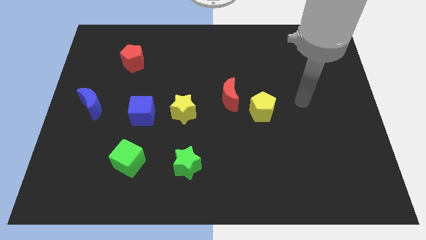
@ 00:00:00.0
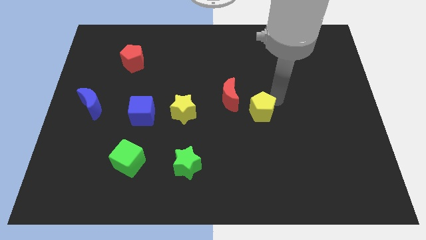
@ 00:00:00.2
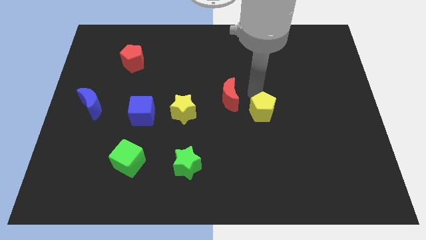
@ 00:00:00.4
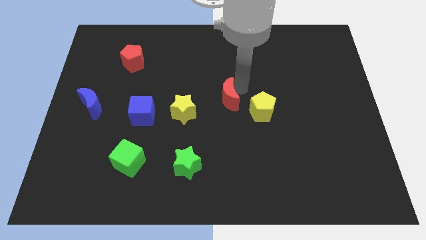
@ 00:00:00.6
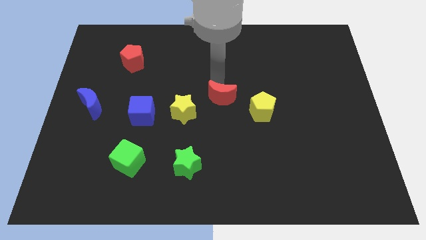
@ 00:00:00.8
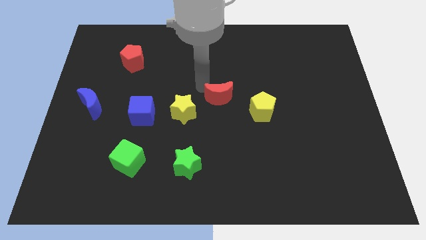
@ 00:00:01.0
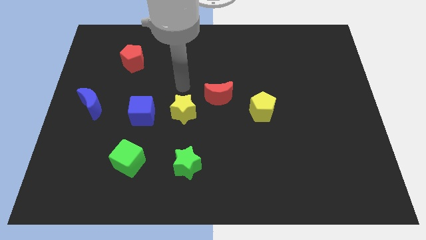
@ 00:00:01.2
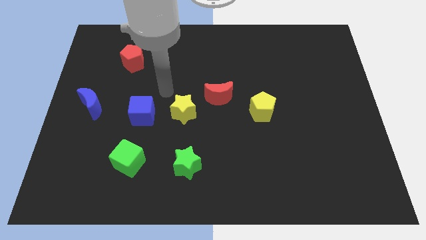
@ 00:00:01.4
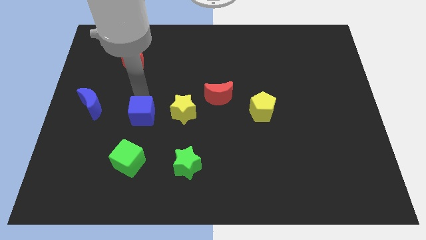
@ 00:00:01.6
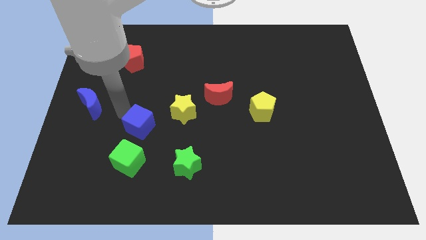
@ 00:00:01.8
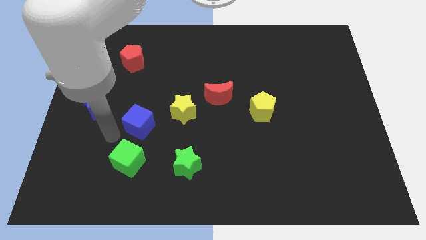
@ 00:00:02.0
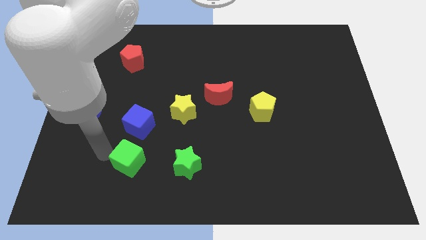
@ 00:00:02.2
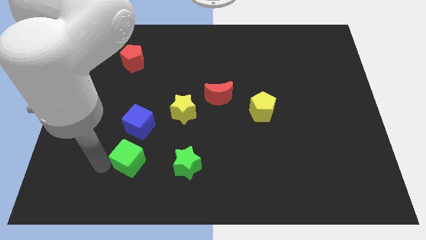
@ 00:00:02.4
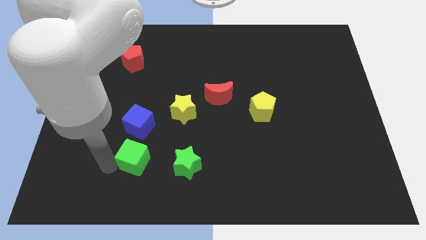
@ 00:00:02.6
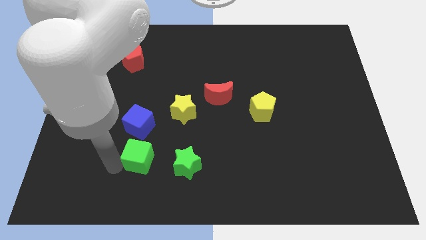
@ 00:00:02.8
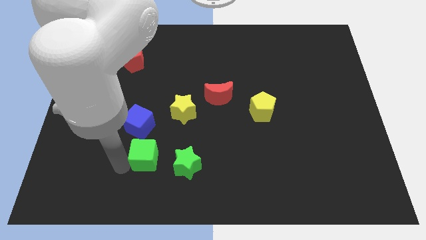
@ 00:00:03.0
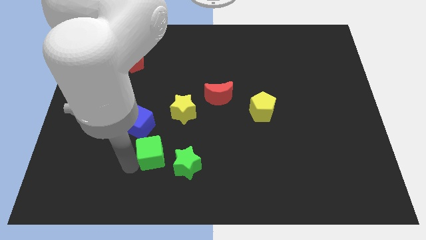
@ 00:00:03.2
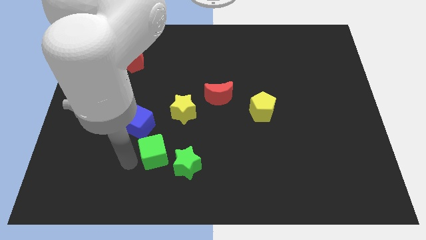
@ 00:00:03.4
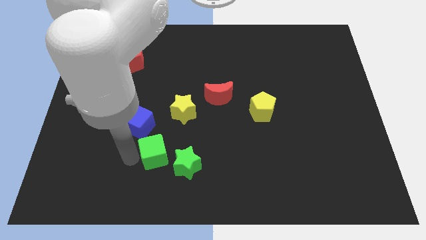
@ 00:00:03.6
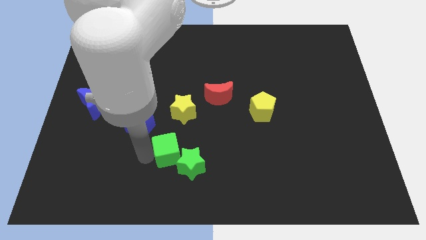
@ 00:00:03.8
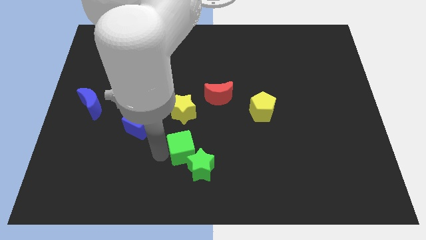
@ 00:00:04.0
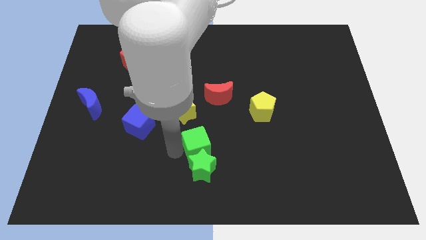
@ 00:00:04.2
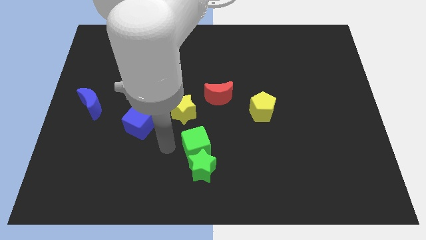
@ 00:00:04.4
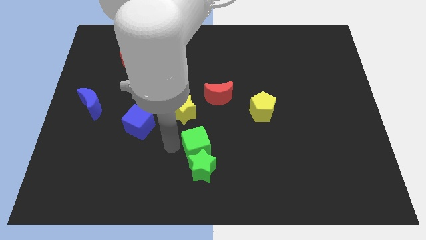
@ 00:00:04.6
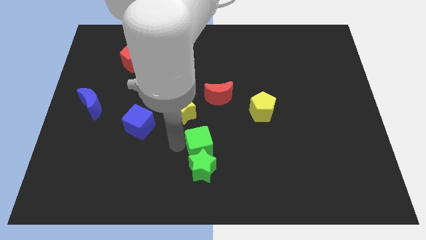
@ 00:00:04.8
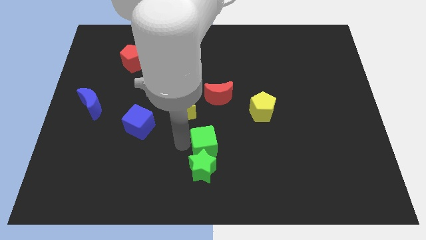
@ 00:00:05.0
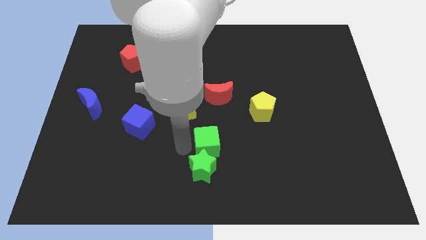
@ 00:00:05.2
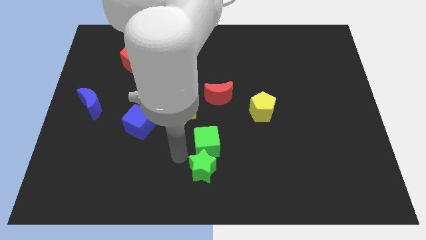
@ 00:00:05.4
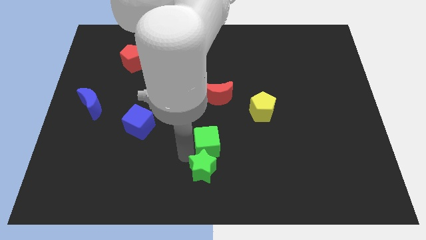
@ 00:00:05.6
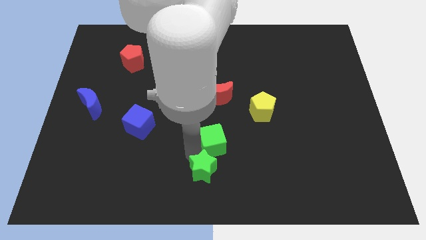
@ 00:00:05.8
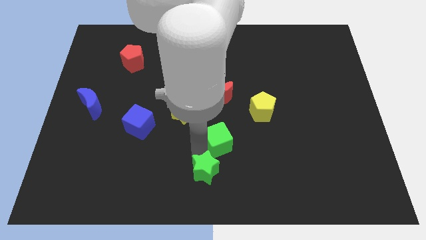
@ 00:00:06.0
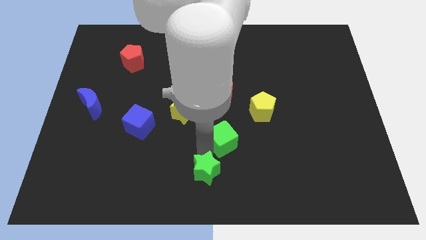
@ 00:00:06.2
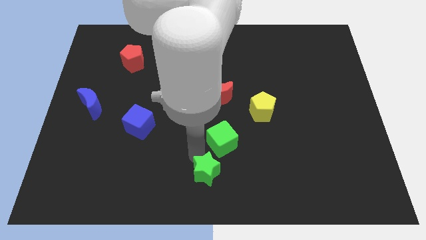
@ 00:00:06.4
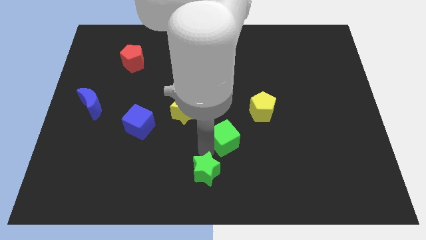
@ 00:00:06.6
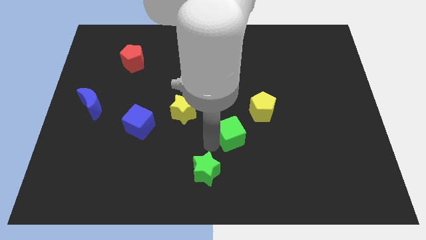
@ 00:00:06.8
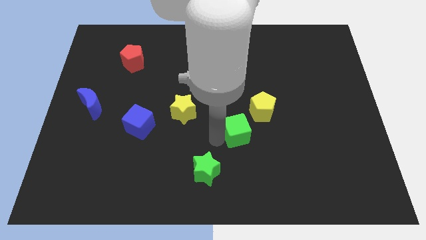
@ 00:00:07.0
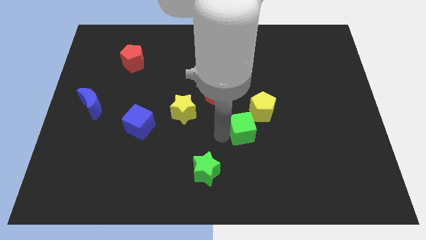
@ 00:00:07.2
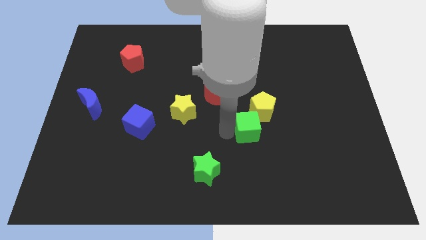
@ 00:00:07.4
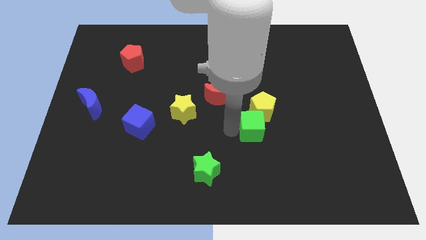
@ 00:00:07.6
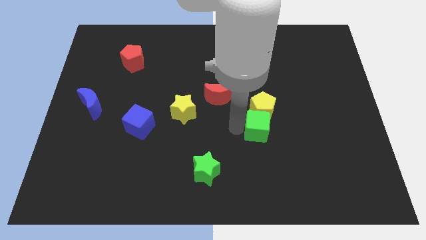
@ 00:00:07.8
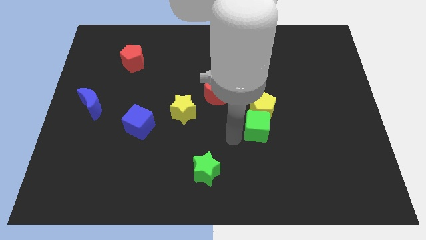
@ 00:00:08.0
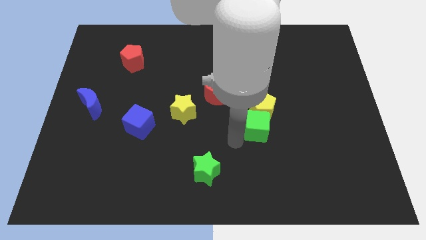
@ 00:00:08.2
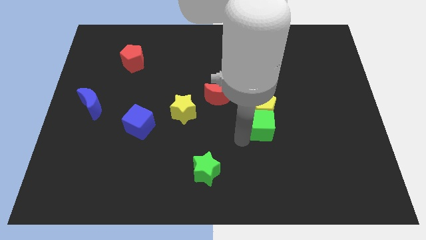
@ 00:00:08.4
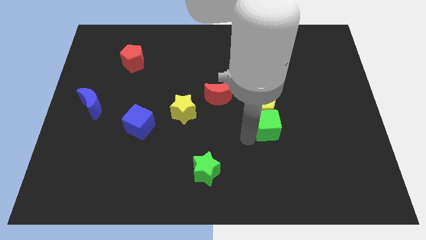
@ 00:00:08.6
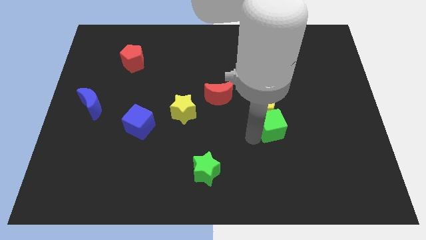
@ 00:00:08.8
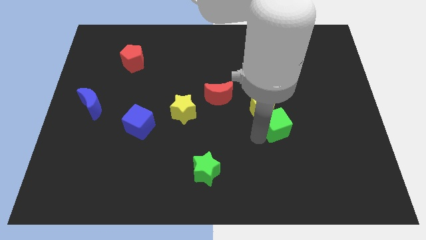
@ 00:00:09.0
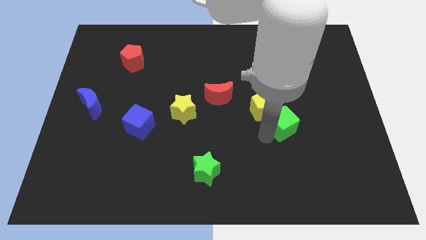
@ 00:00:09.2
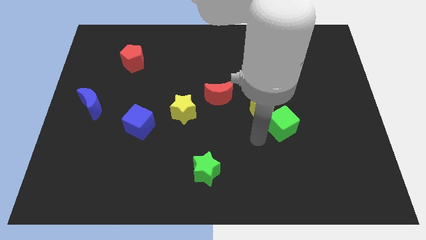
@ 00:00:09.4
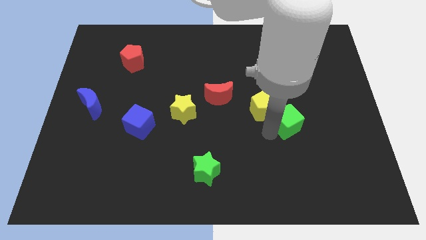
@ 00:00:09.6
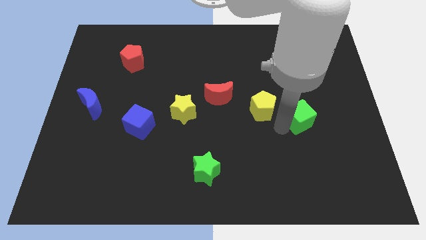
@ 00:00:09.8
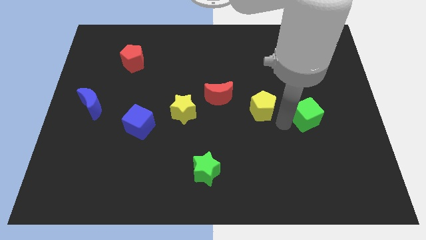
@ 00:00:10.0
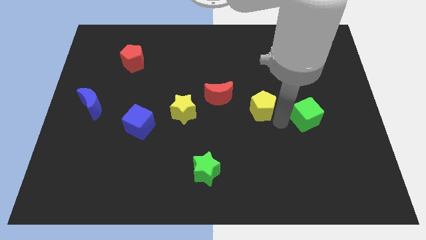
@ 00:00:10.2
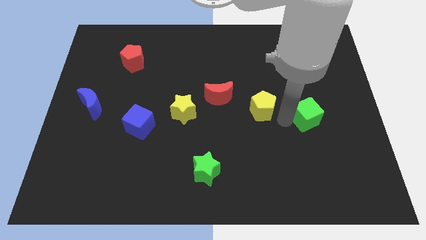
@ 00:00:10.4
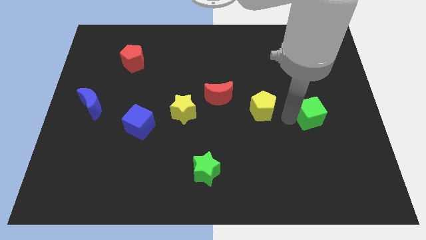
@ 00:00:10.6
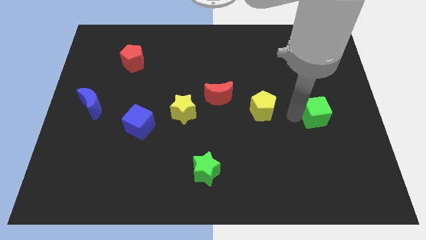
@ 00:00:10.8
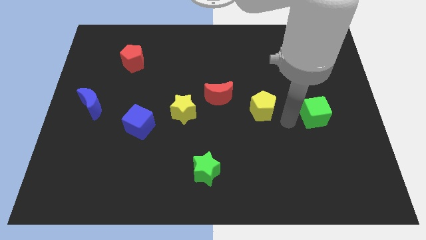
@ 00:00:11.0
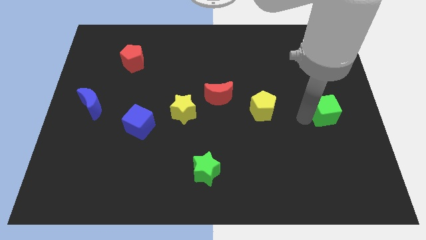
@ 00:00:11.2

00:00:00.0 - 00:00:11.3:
move the green cube to the right side
